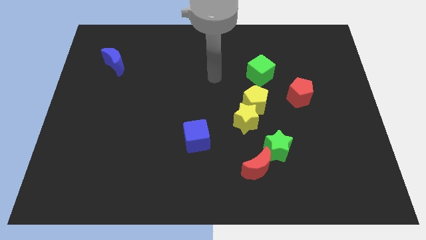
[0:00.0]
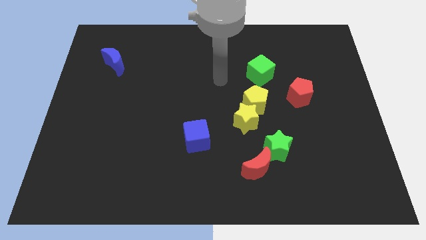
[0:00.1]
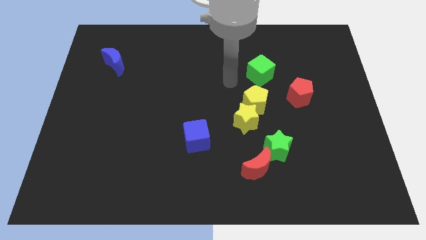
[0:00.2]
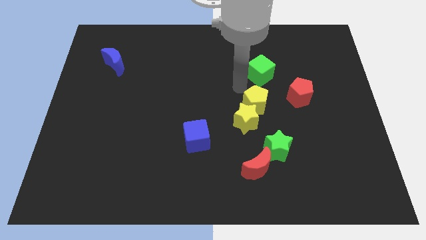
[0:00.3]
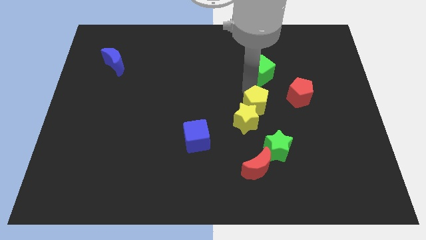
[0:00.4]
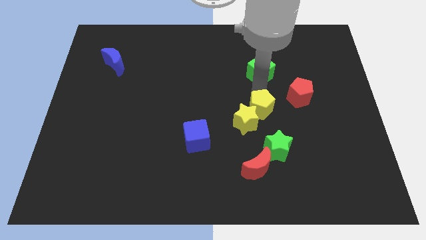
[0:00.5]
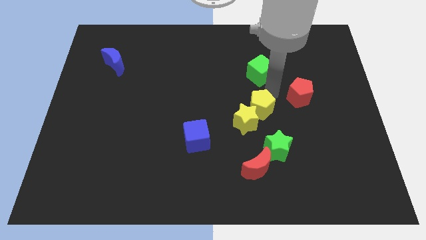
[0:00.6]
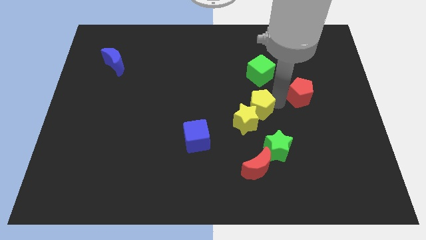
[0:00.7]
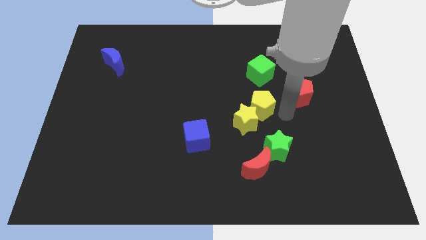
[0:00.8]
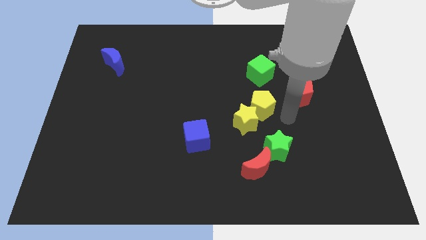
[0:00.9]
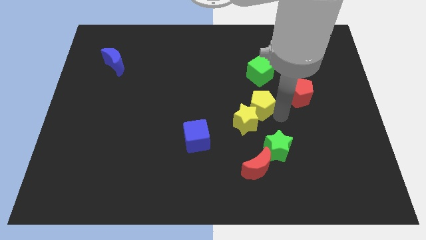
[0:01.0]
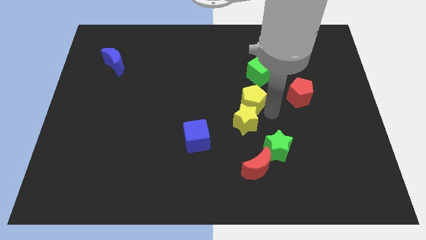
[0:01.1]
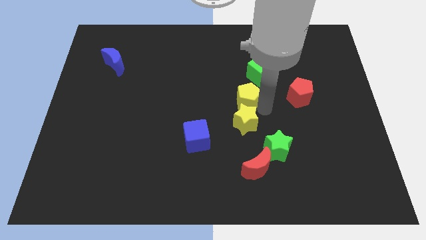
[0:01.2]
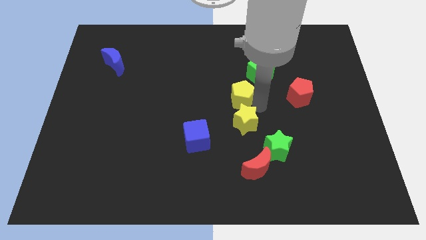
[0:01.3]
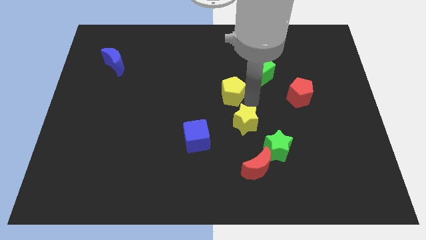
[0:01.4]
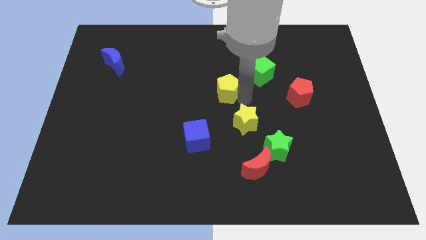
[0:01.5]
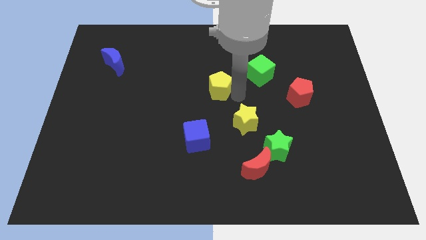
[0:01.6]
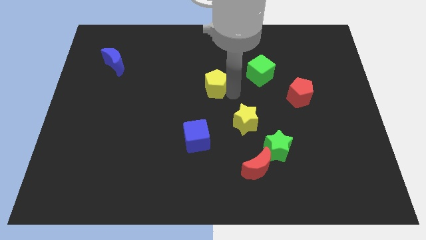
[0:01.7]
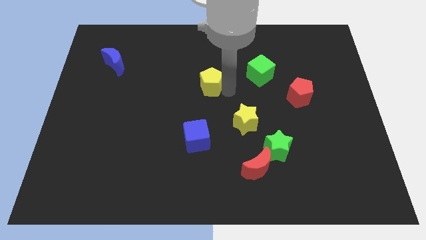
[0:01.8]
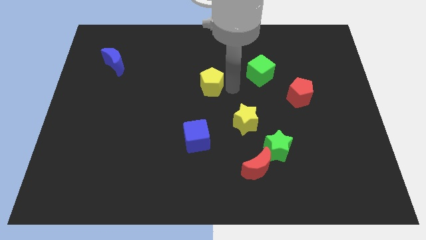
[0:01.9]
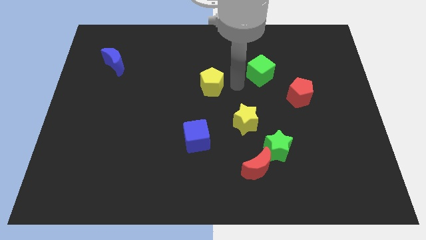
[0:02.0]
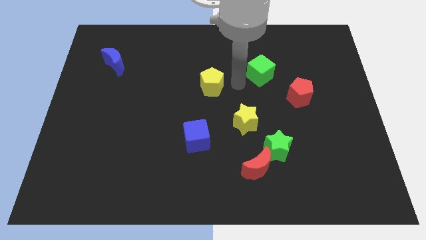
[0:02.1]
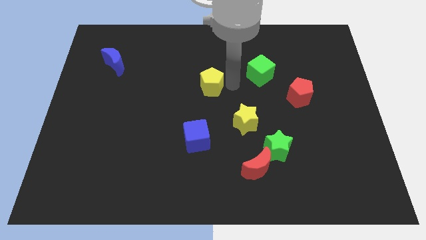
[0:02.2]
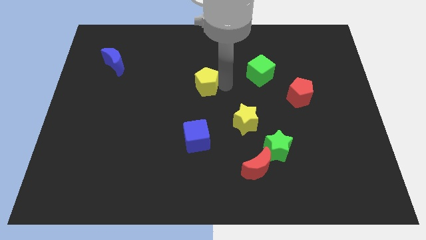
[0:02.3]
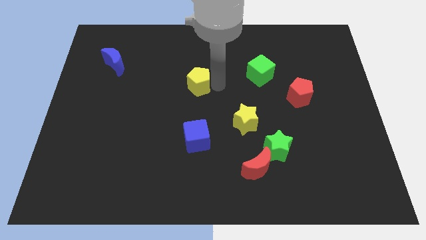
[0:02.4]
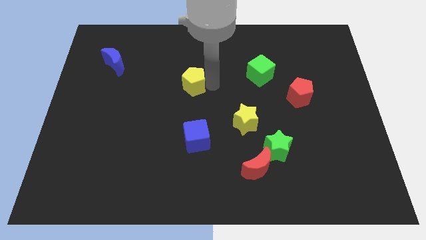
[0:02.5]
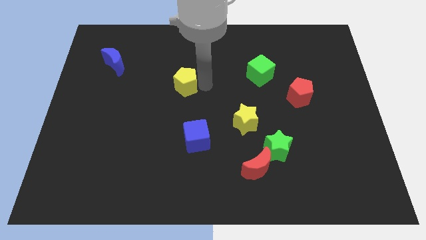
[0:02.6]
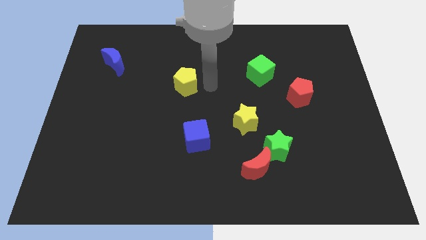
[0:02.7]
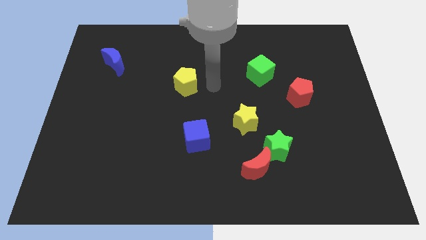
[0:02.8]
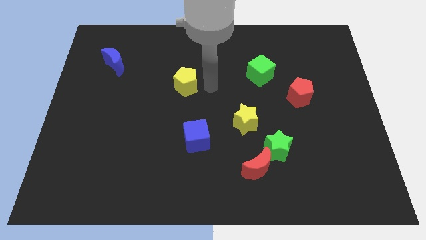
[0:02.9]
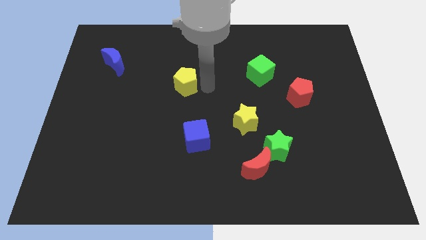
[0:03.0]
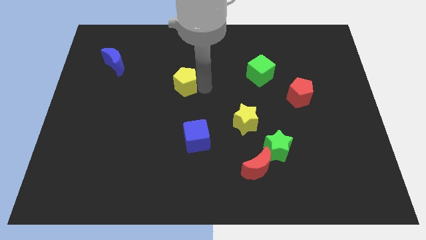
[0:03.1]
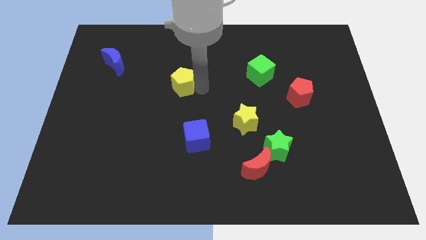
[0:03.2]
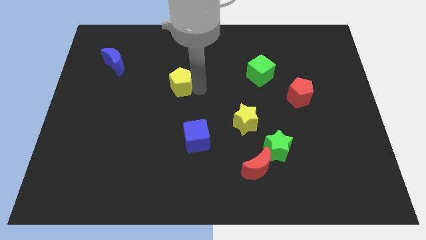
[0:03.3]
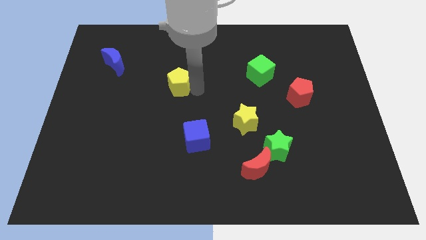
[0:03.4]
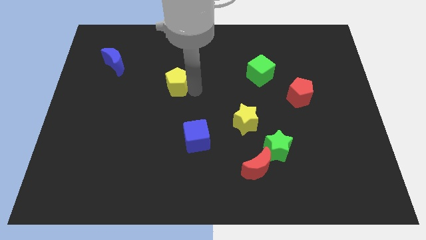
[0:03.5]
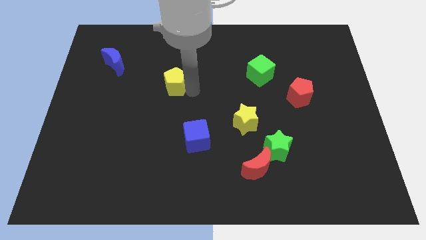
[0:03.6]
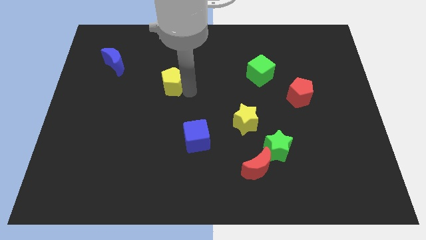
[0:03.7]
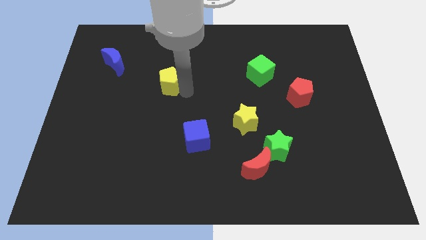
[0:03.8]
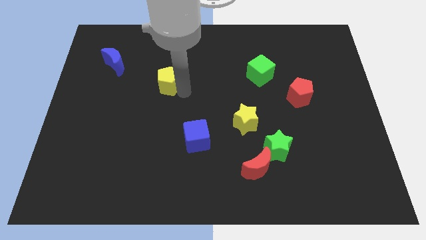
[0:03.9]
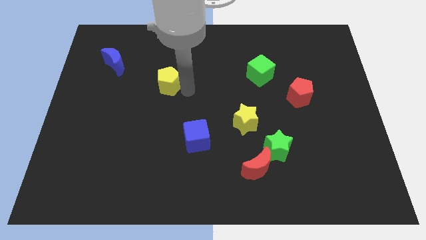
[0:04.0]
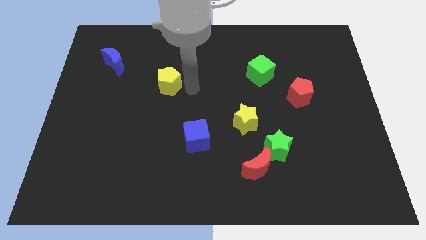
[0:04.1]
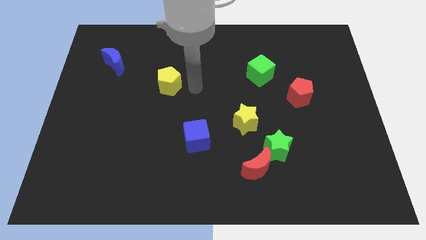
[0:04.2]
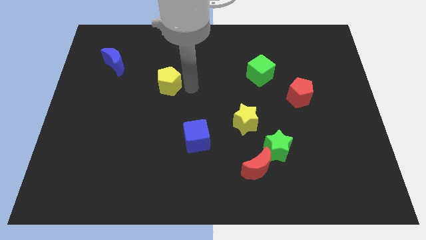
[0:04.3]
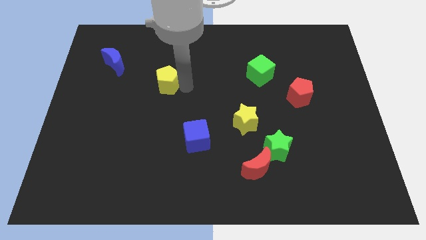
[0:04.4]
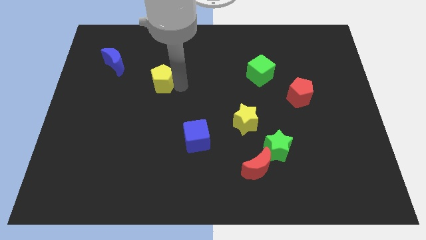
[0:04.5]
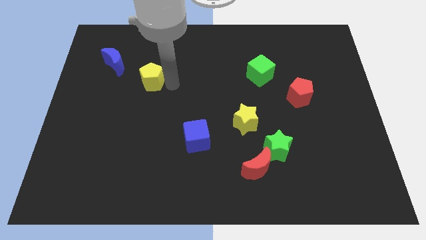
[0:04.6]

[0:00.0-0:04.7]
move the yellow pentagon diagonally down and to the right of the blue moon

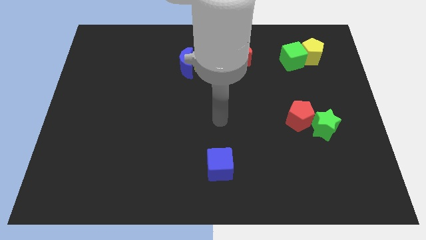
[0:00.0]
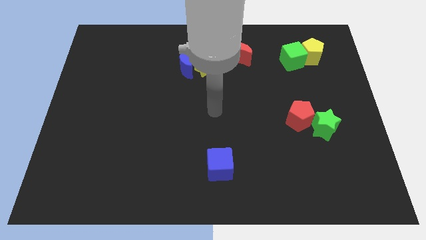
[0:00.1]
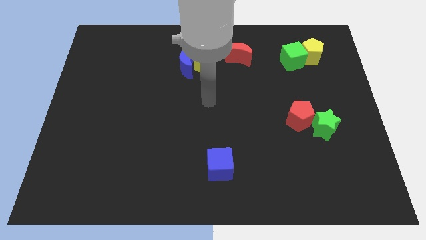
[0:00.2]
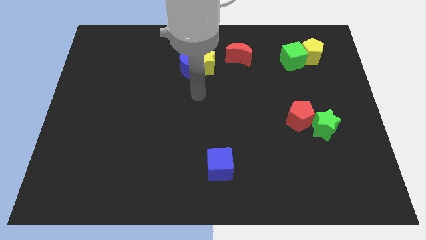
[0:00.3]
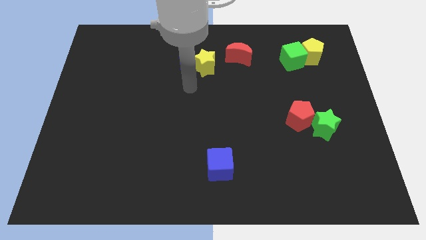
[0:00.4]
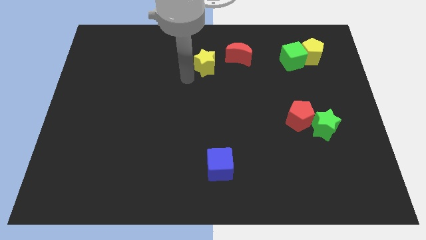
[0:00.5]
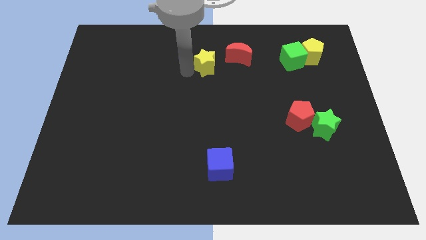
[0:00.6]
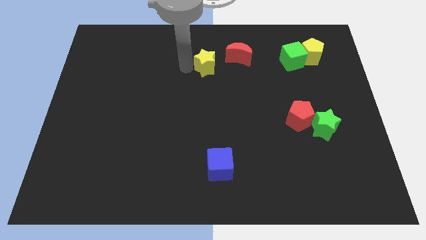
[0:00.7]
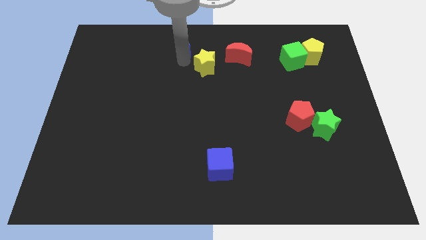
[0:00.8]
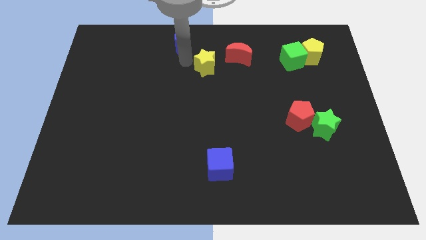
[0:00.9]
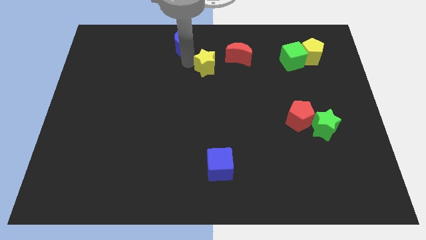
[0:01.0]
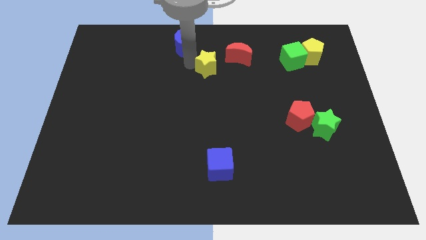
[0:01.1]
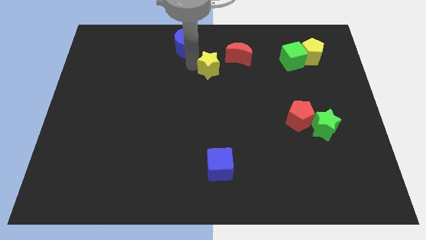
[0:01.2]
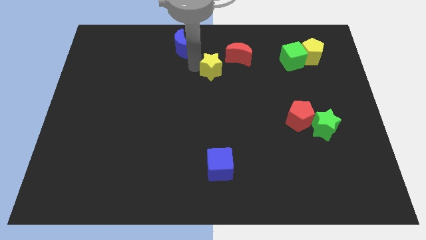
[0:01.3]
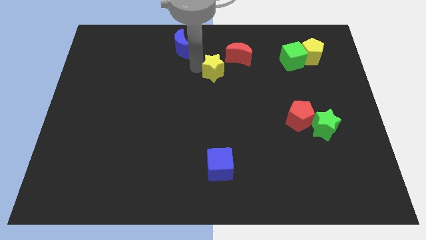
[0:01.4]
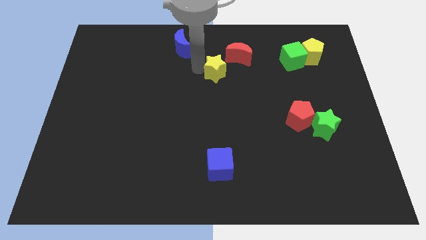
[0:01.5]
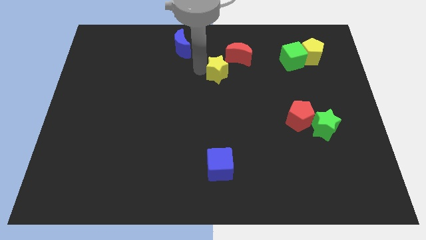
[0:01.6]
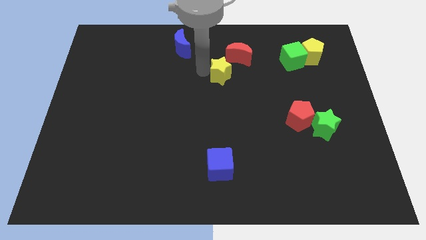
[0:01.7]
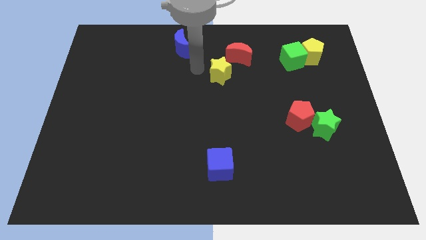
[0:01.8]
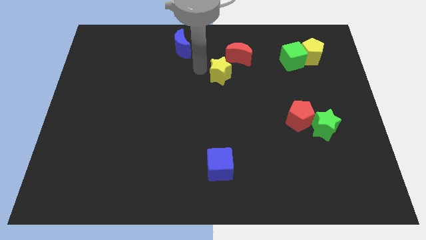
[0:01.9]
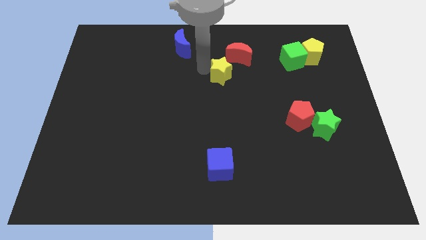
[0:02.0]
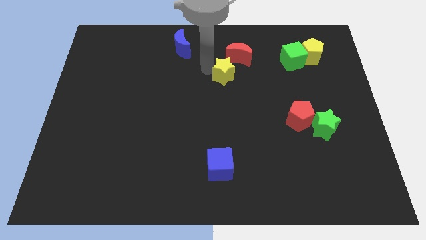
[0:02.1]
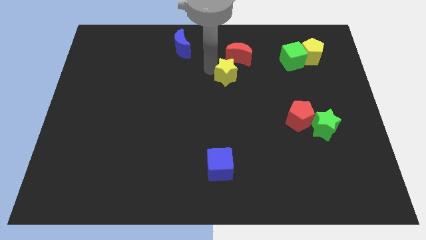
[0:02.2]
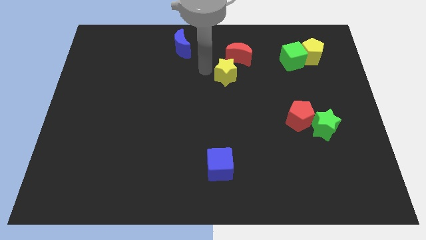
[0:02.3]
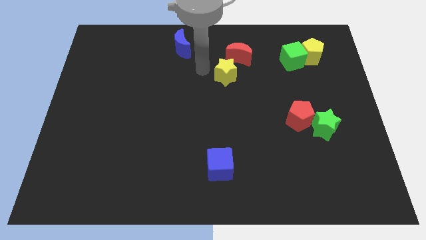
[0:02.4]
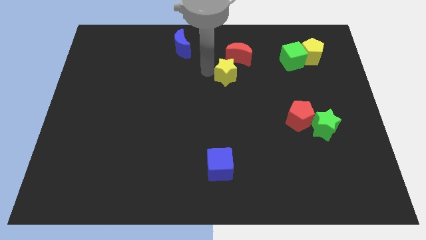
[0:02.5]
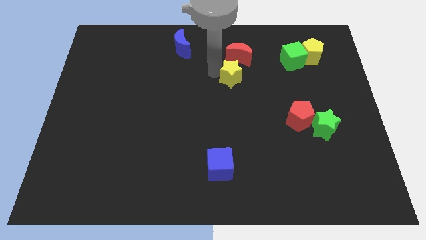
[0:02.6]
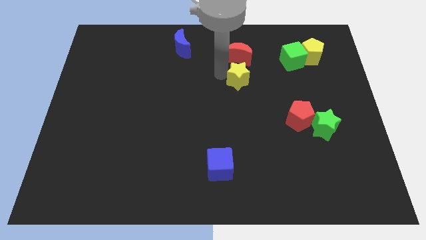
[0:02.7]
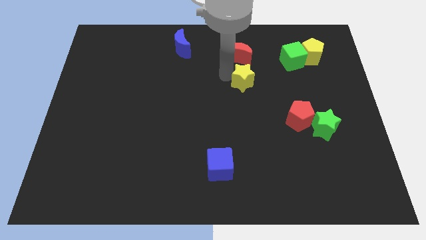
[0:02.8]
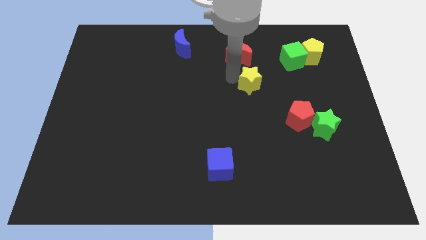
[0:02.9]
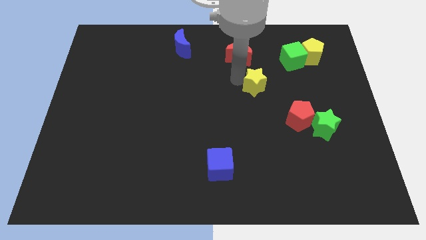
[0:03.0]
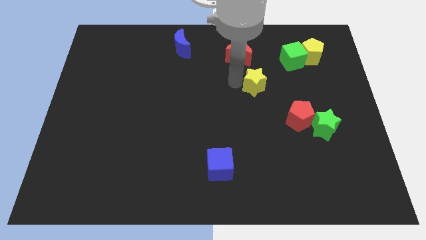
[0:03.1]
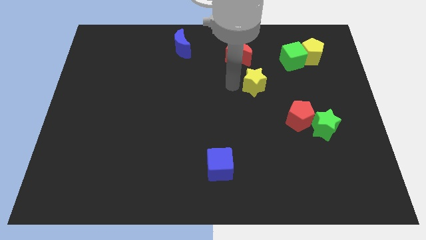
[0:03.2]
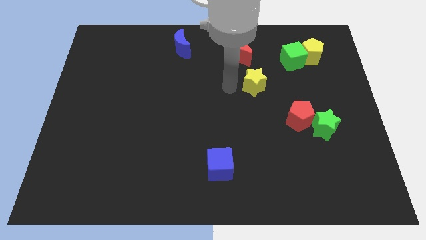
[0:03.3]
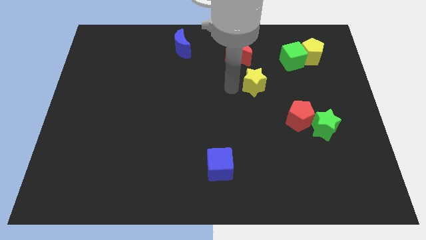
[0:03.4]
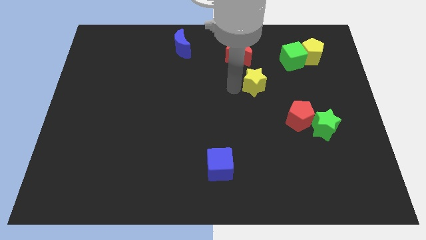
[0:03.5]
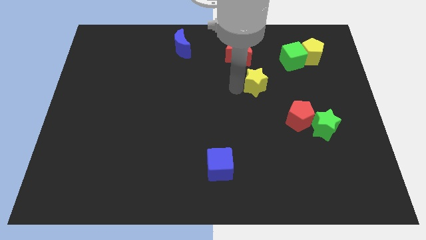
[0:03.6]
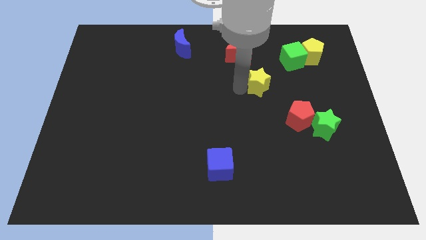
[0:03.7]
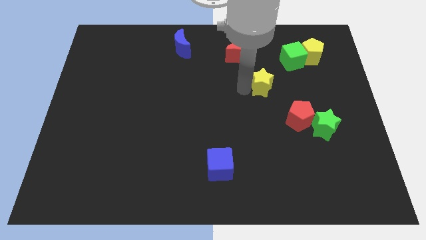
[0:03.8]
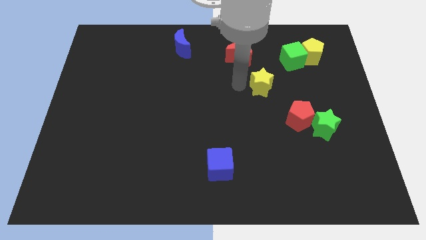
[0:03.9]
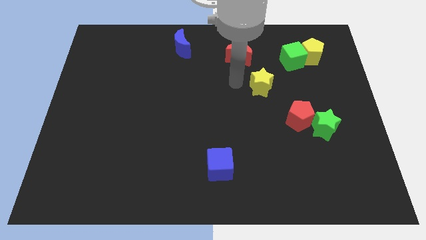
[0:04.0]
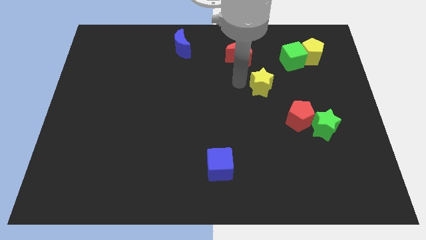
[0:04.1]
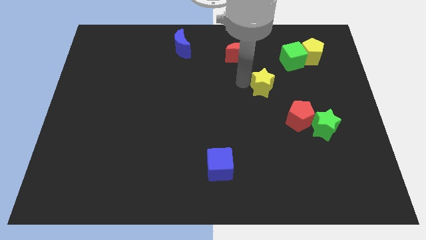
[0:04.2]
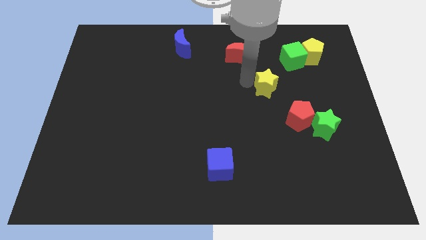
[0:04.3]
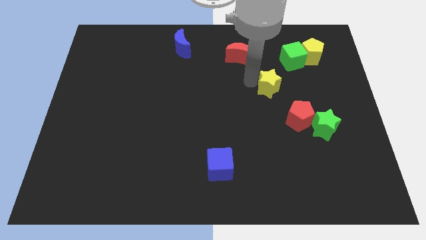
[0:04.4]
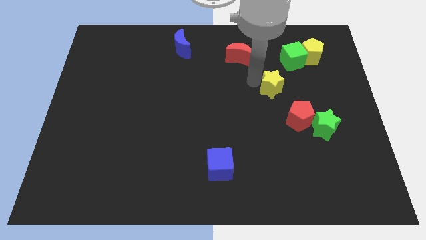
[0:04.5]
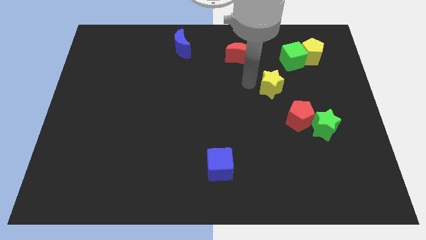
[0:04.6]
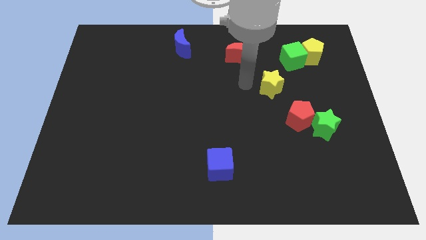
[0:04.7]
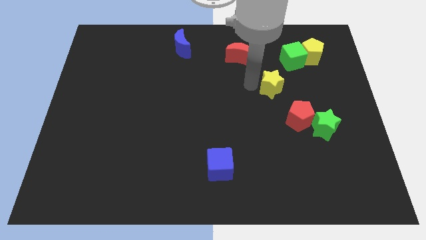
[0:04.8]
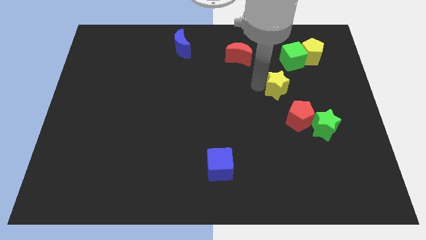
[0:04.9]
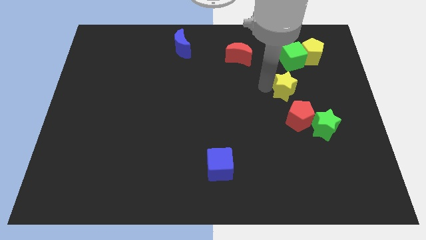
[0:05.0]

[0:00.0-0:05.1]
slide the yellow star to the bottom of the green cube
